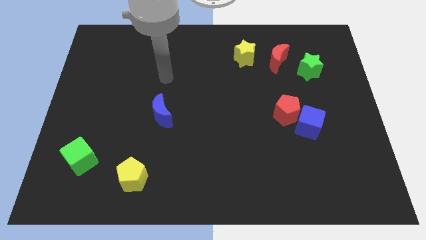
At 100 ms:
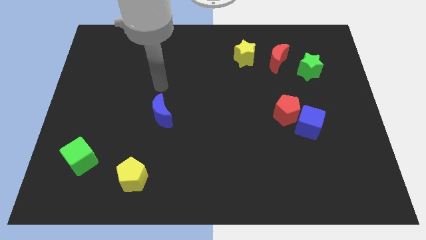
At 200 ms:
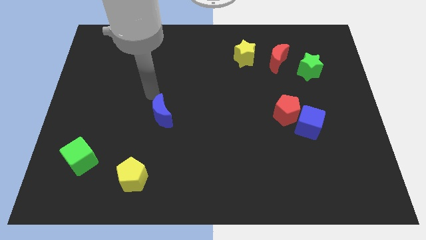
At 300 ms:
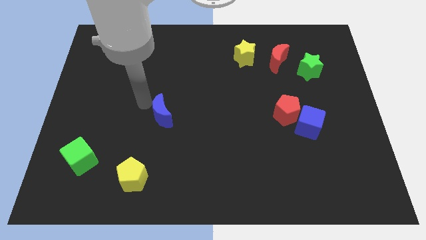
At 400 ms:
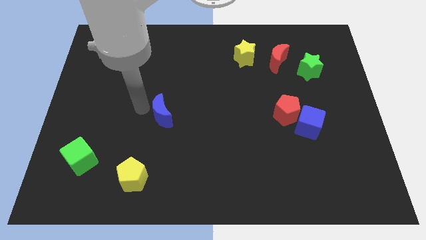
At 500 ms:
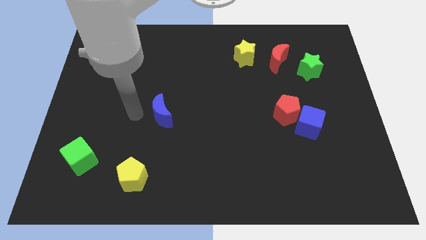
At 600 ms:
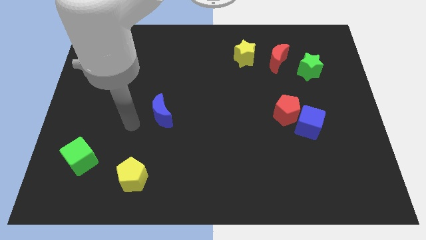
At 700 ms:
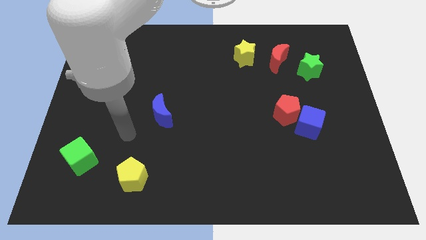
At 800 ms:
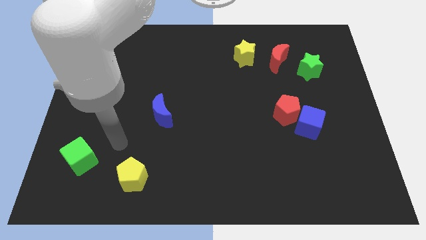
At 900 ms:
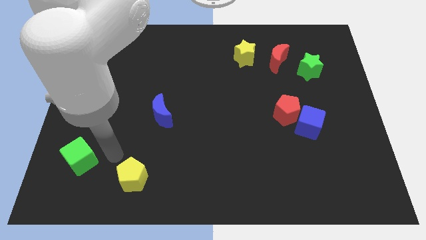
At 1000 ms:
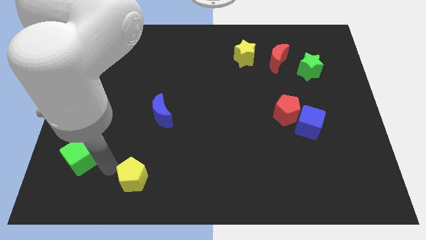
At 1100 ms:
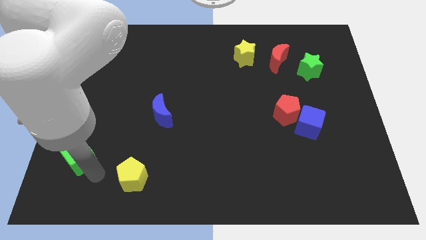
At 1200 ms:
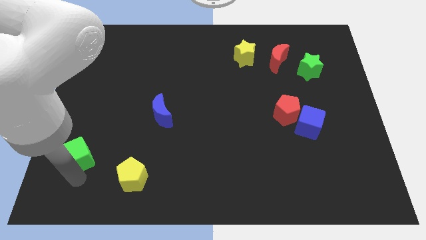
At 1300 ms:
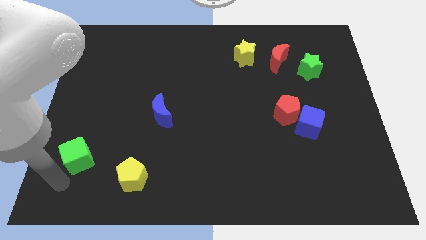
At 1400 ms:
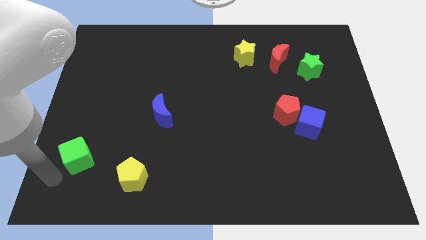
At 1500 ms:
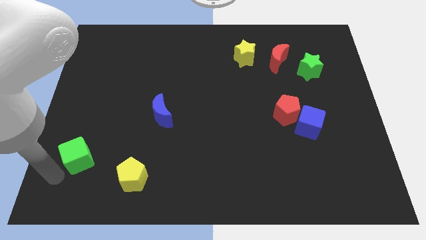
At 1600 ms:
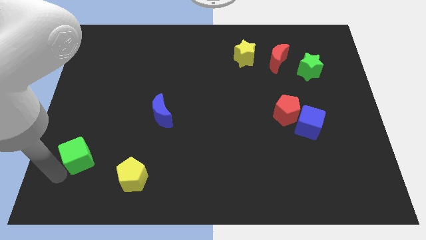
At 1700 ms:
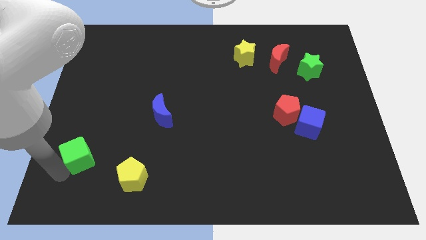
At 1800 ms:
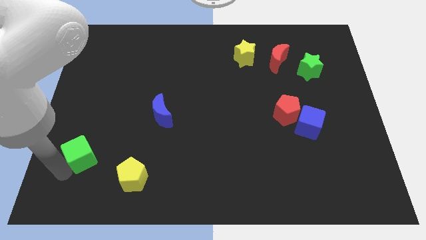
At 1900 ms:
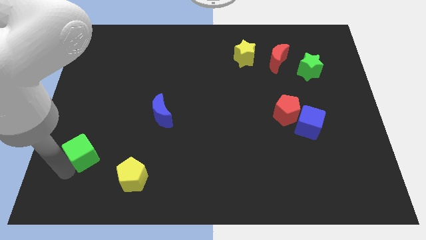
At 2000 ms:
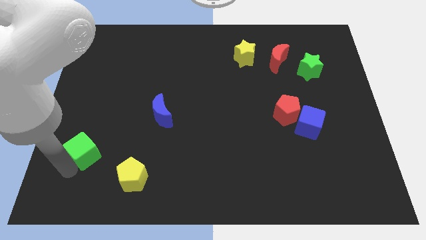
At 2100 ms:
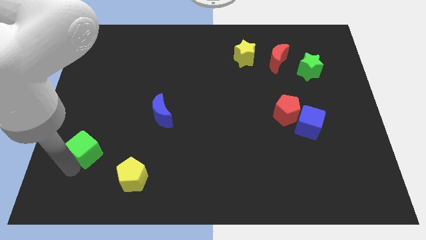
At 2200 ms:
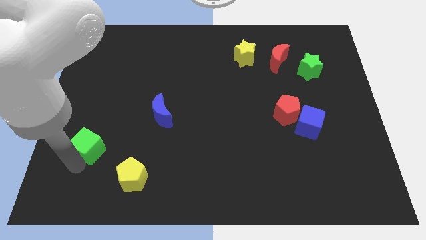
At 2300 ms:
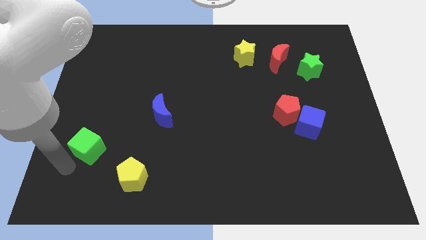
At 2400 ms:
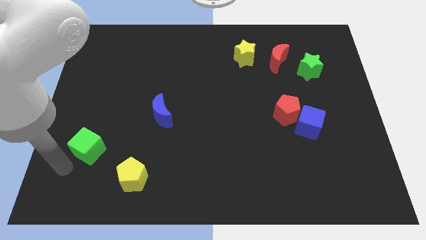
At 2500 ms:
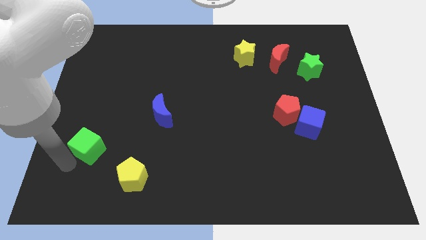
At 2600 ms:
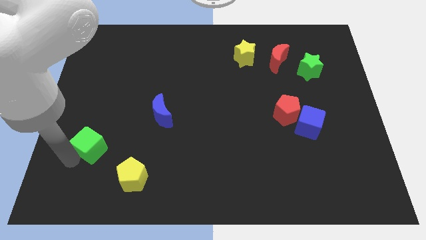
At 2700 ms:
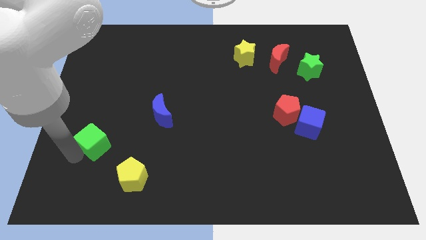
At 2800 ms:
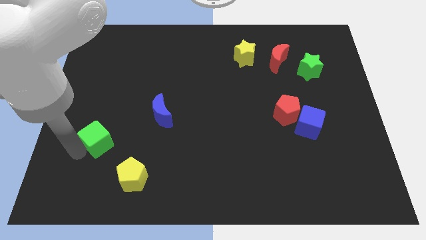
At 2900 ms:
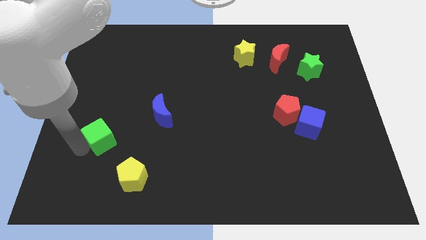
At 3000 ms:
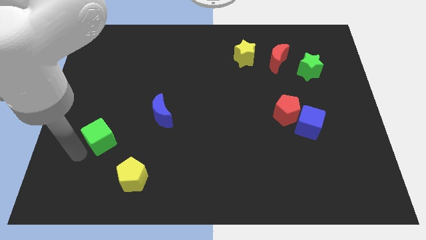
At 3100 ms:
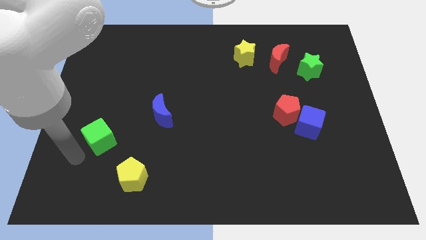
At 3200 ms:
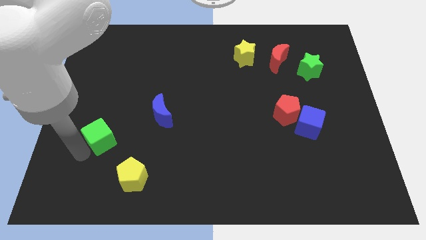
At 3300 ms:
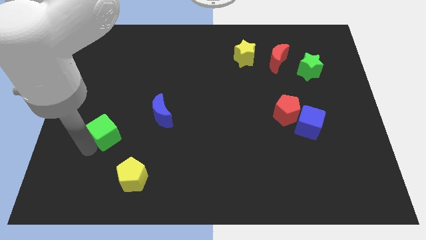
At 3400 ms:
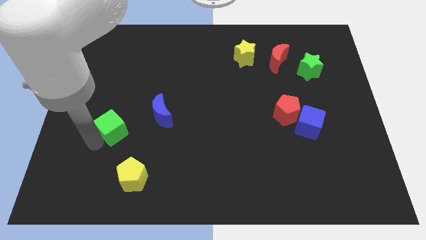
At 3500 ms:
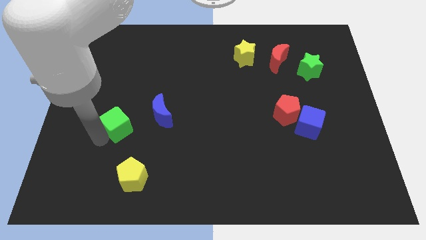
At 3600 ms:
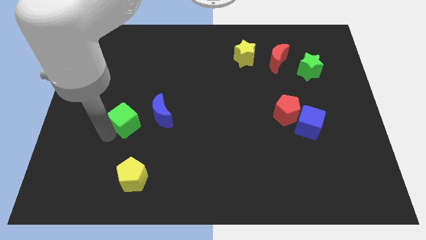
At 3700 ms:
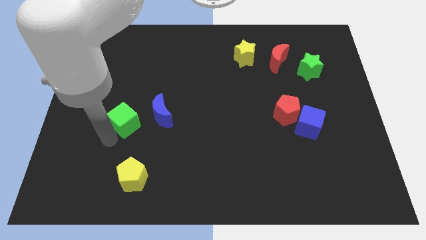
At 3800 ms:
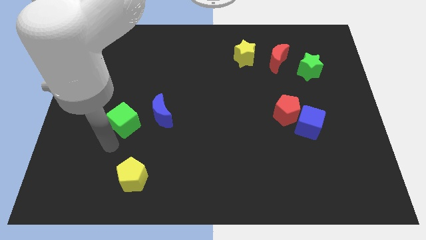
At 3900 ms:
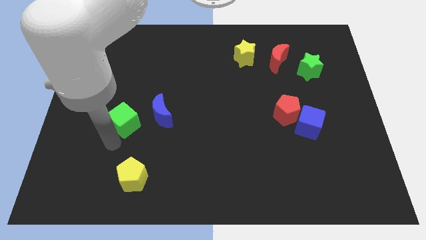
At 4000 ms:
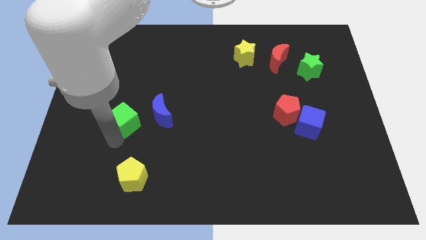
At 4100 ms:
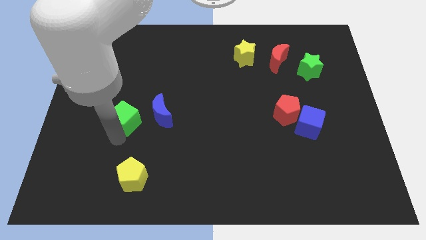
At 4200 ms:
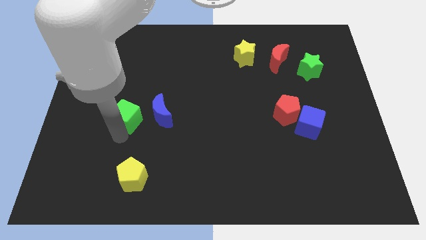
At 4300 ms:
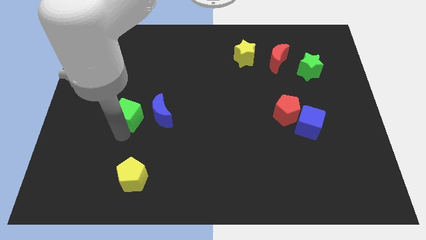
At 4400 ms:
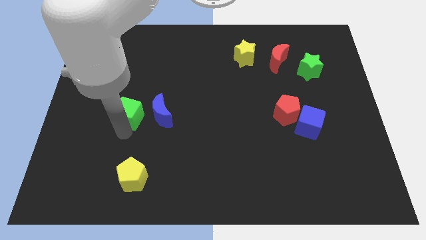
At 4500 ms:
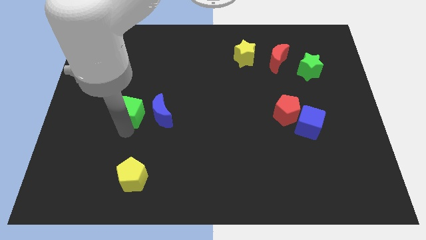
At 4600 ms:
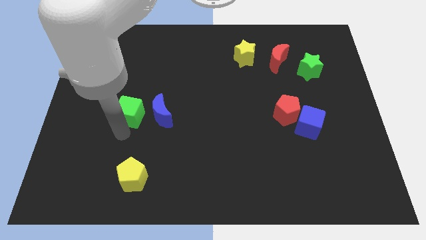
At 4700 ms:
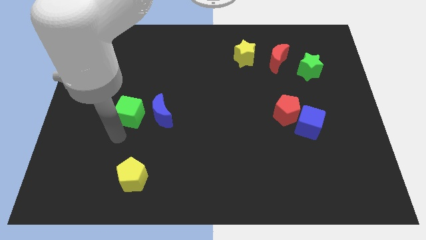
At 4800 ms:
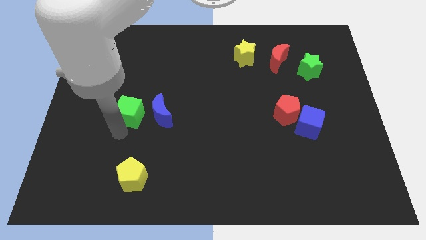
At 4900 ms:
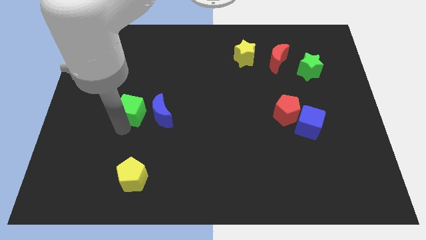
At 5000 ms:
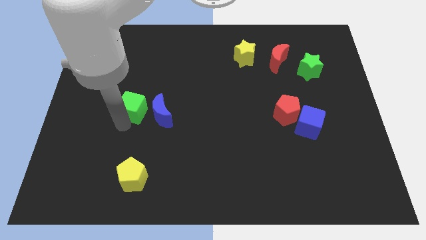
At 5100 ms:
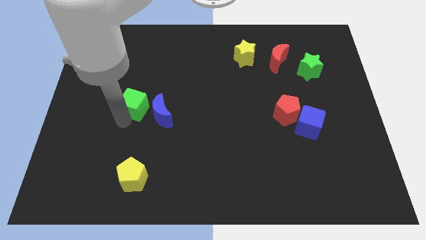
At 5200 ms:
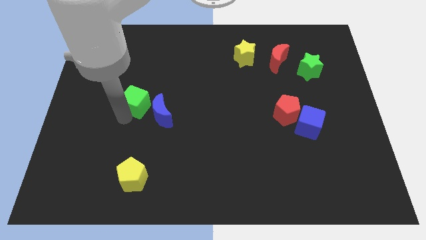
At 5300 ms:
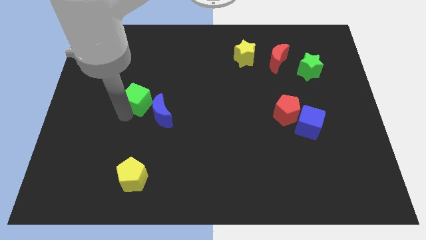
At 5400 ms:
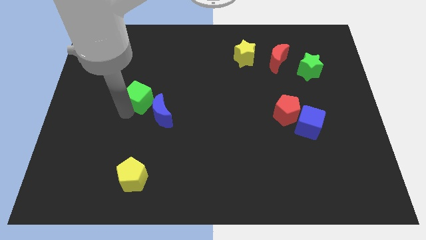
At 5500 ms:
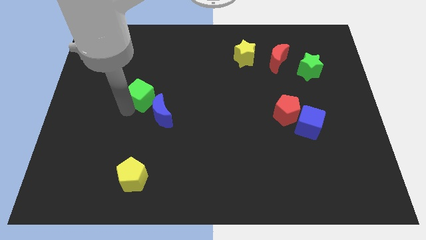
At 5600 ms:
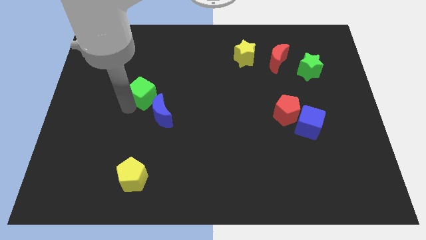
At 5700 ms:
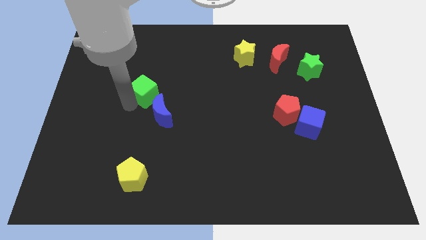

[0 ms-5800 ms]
move the green cube up and then right

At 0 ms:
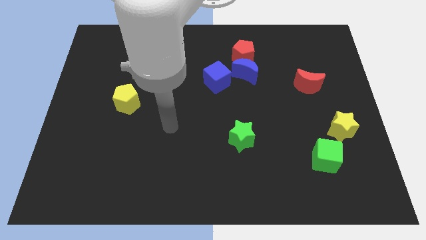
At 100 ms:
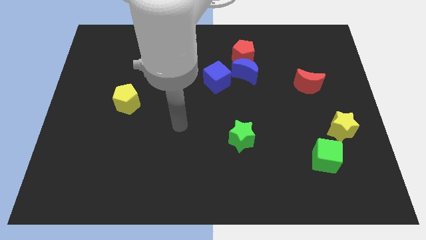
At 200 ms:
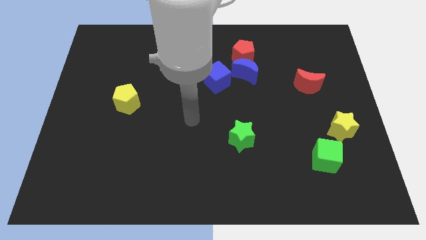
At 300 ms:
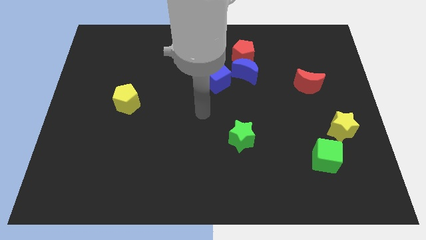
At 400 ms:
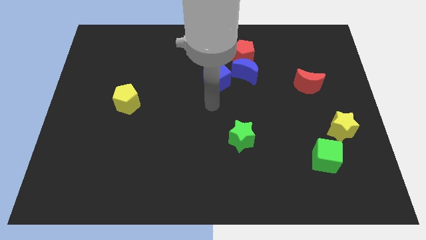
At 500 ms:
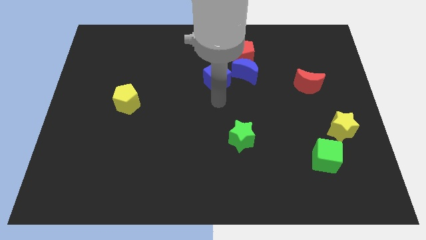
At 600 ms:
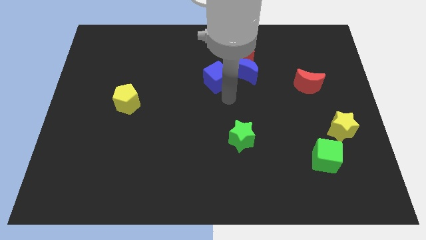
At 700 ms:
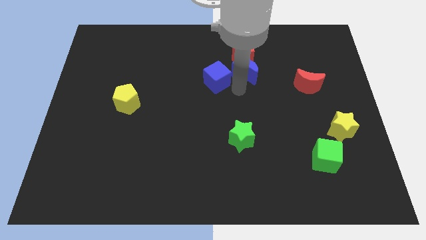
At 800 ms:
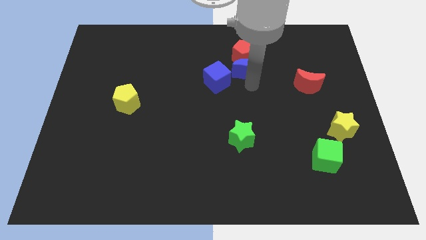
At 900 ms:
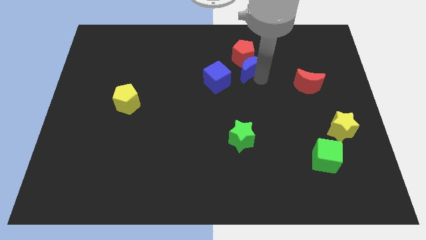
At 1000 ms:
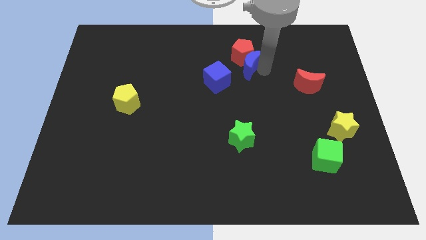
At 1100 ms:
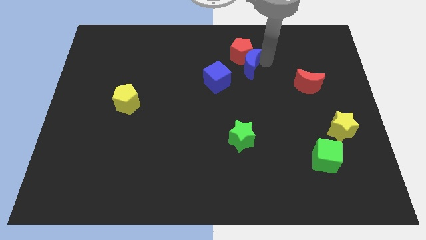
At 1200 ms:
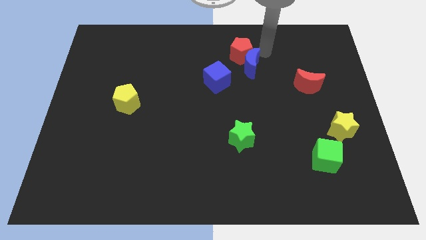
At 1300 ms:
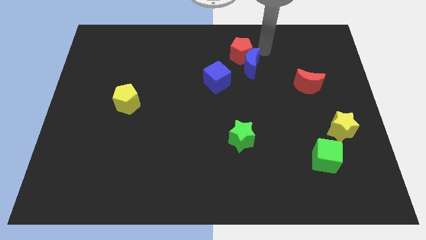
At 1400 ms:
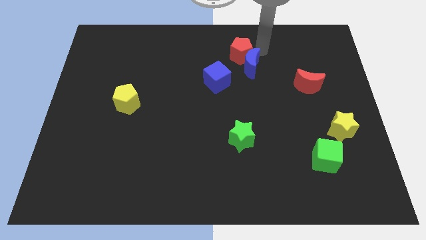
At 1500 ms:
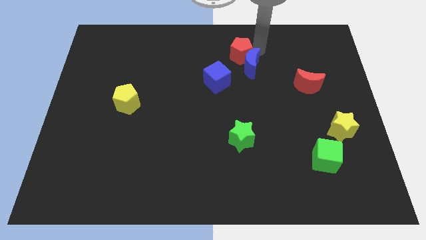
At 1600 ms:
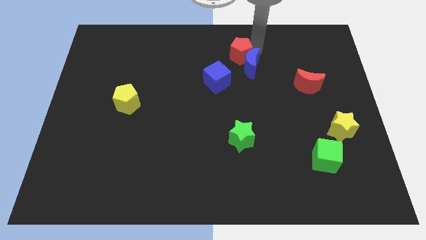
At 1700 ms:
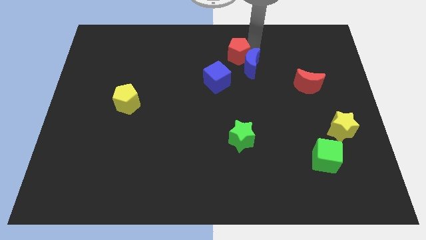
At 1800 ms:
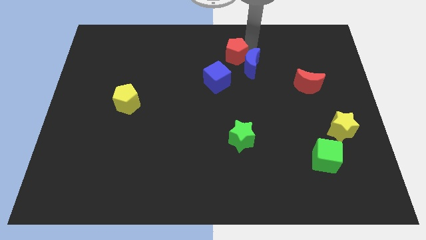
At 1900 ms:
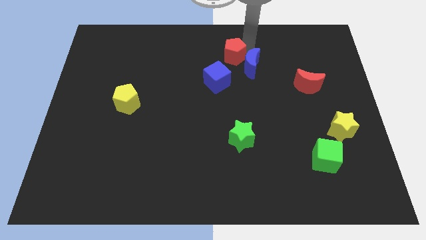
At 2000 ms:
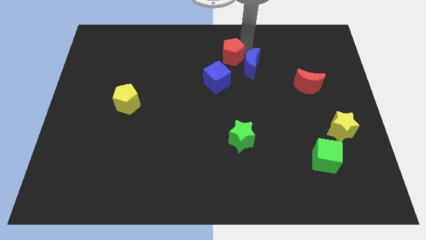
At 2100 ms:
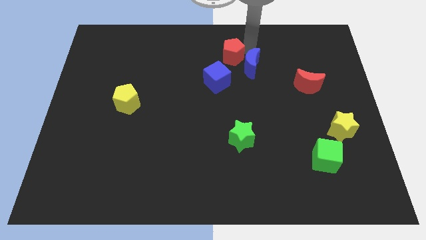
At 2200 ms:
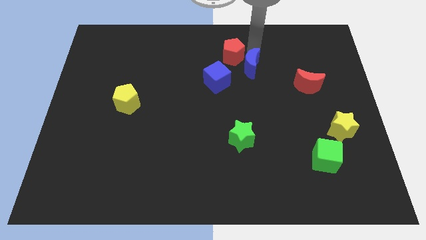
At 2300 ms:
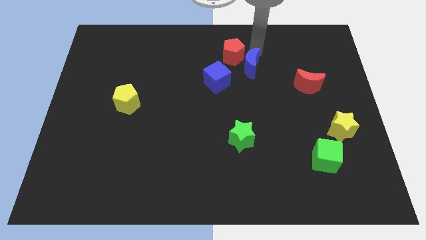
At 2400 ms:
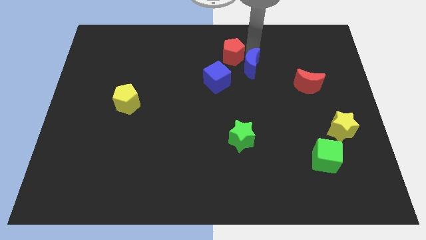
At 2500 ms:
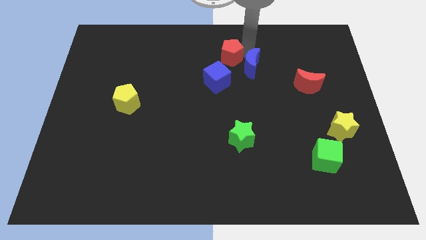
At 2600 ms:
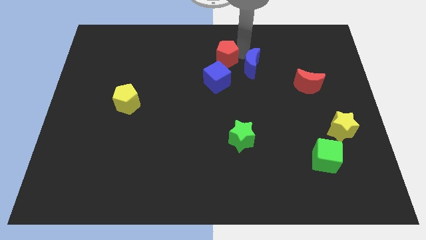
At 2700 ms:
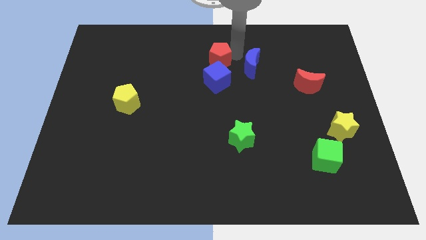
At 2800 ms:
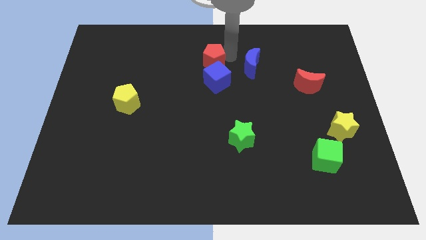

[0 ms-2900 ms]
push the red pentagon left a little
